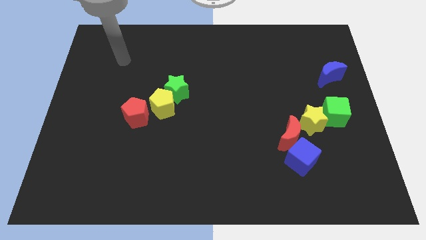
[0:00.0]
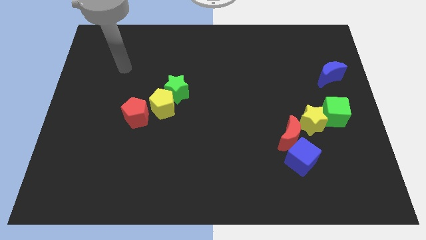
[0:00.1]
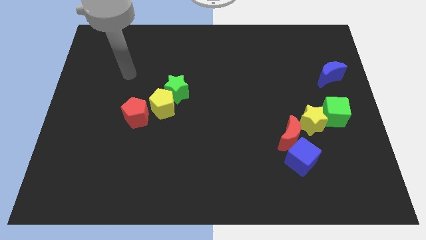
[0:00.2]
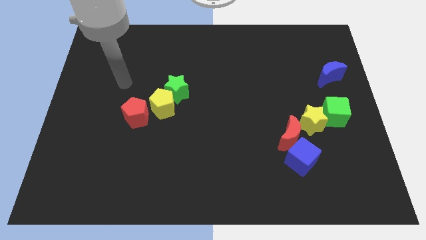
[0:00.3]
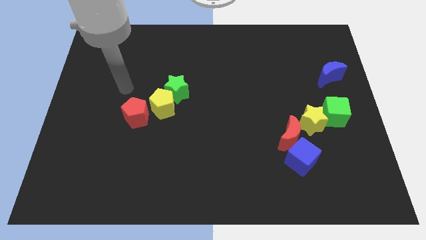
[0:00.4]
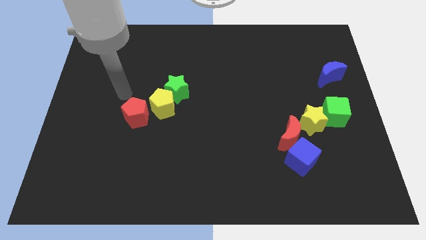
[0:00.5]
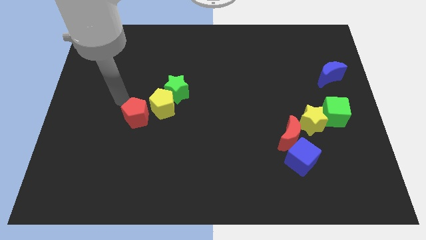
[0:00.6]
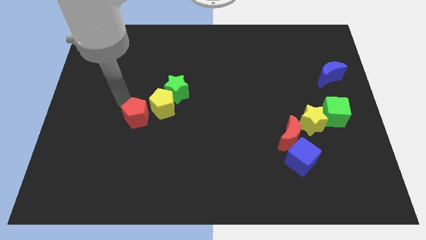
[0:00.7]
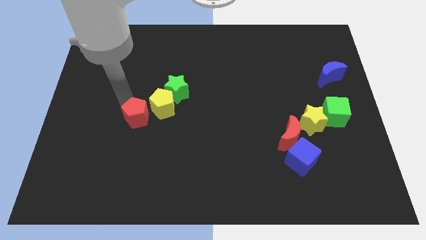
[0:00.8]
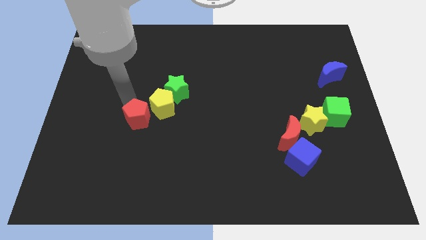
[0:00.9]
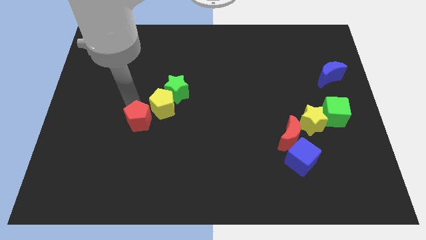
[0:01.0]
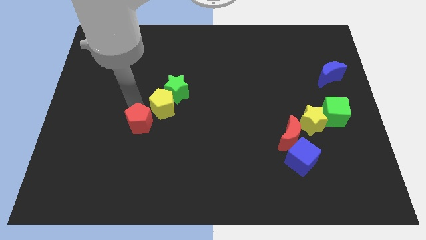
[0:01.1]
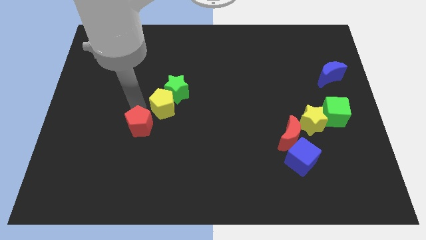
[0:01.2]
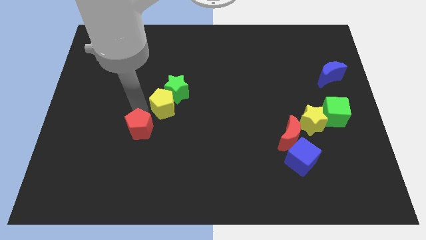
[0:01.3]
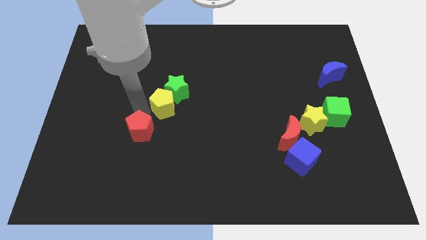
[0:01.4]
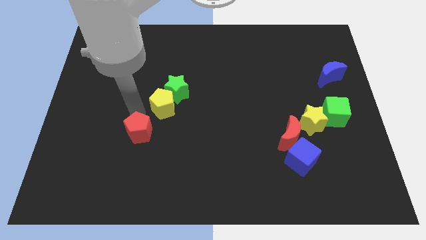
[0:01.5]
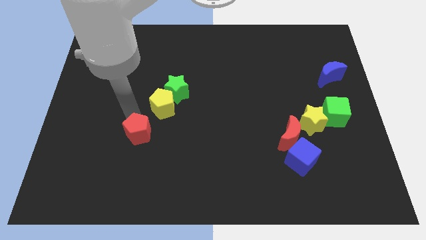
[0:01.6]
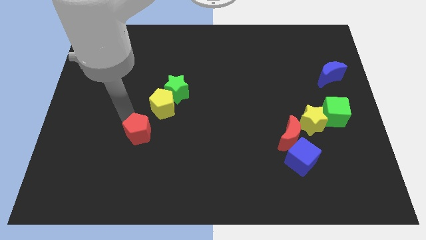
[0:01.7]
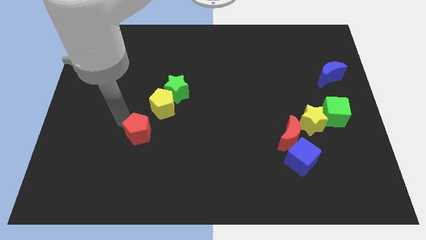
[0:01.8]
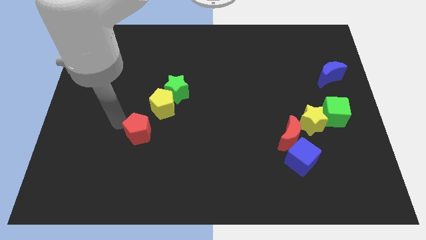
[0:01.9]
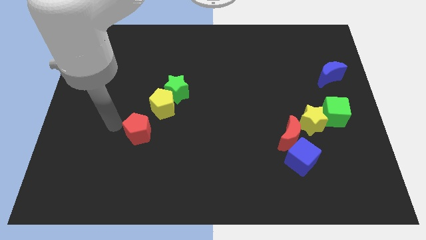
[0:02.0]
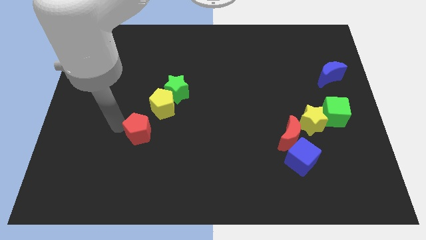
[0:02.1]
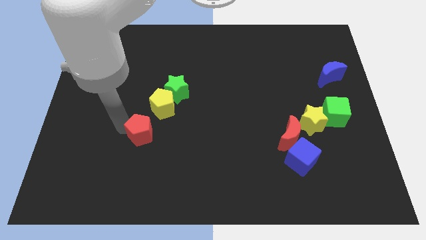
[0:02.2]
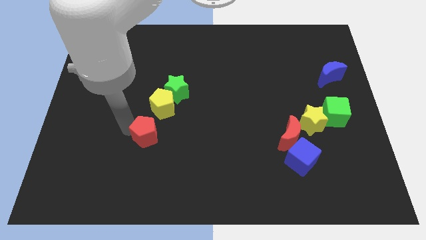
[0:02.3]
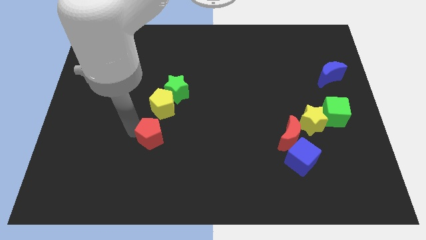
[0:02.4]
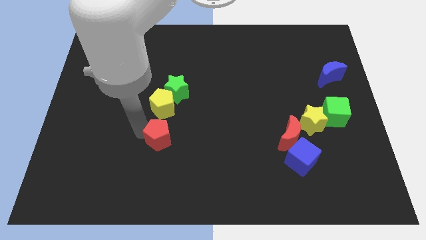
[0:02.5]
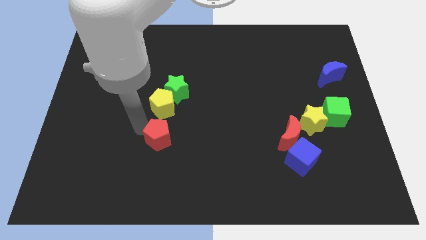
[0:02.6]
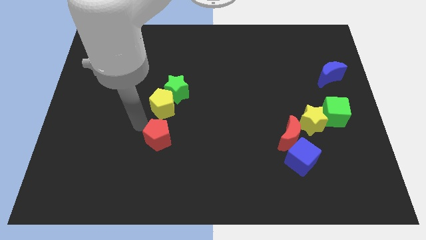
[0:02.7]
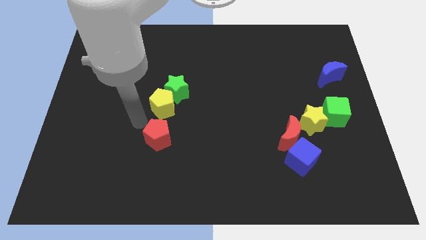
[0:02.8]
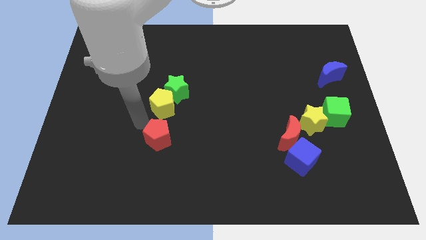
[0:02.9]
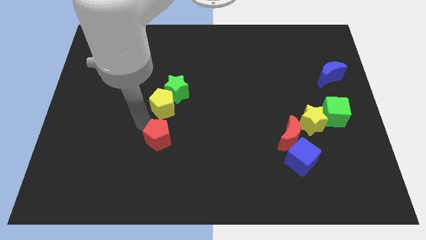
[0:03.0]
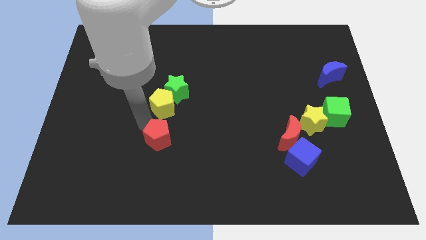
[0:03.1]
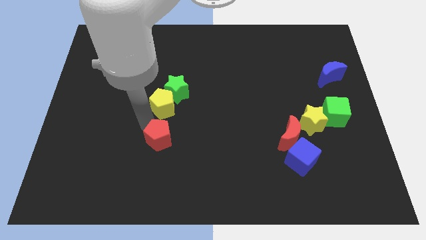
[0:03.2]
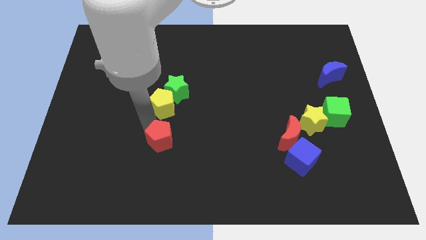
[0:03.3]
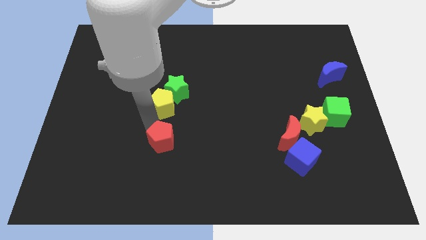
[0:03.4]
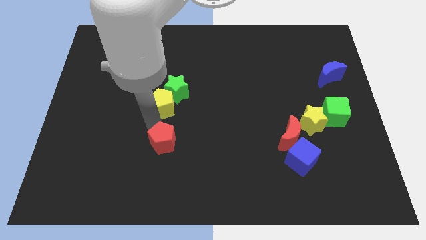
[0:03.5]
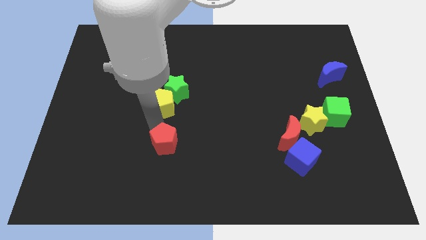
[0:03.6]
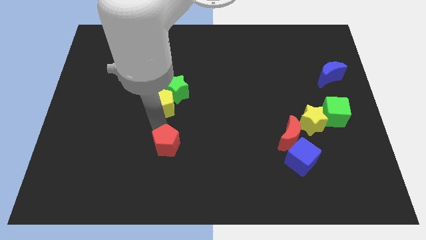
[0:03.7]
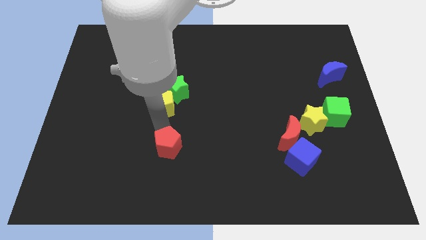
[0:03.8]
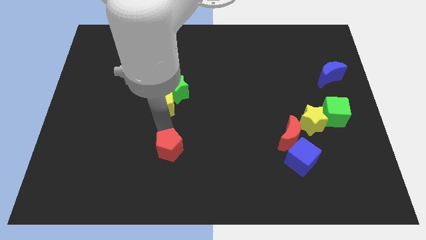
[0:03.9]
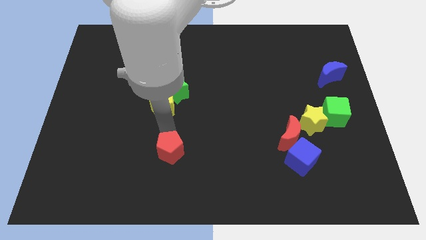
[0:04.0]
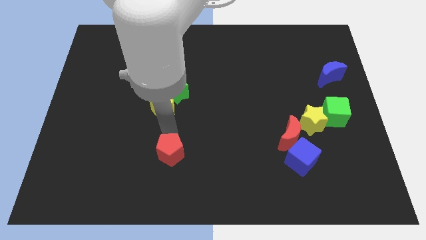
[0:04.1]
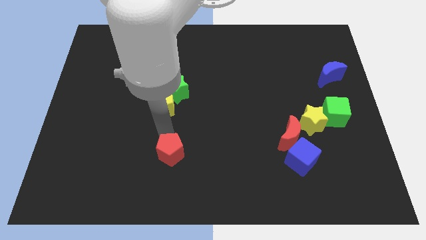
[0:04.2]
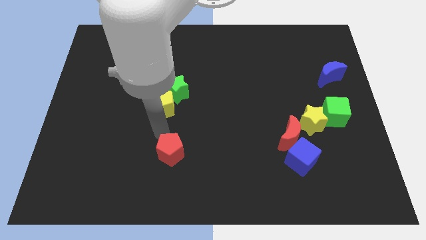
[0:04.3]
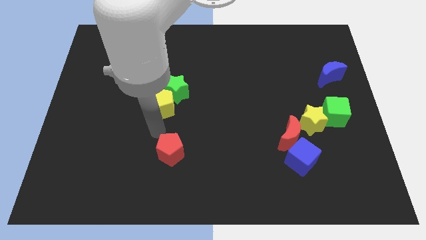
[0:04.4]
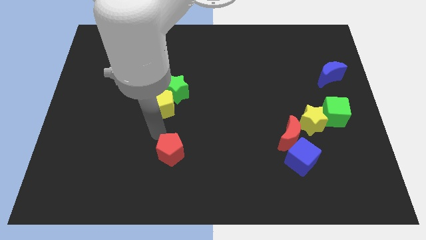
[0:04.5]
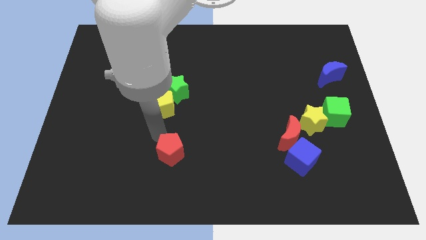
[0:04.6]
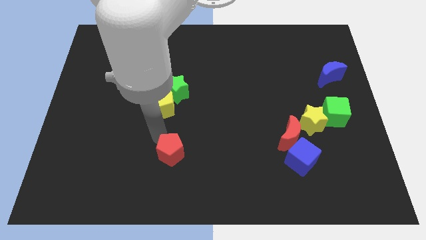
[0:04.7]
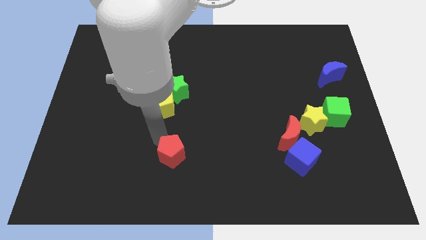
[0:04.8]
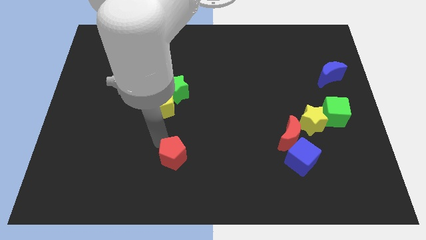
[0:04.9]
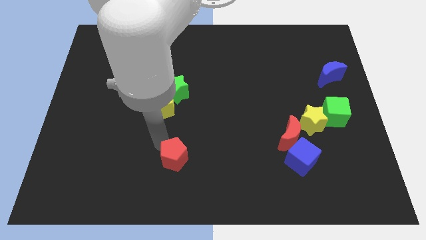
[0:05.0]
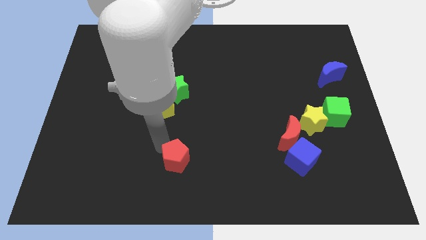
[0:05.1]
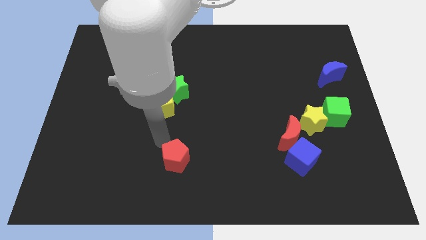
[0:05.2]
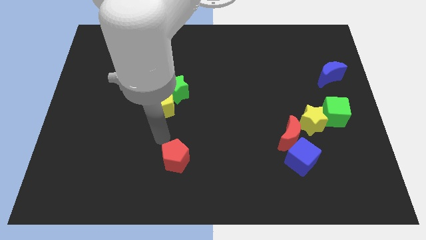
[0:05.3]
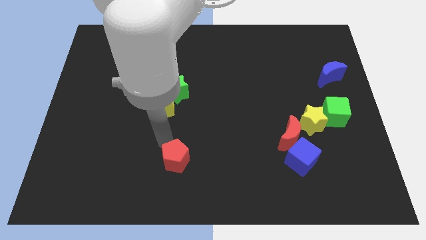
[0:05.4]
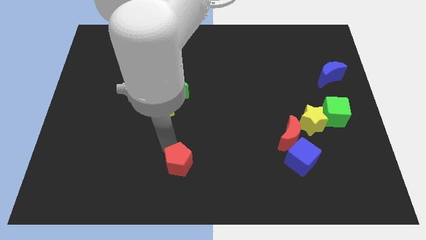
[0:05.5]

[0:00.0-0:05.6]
push the red pentagon to the bottom side

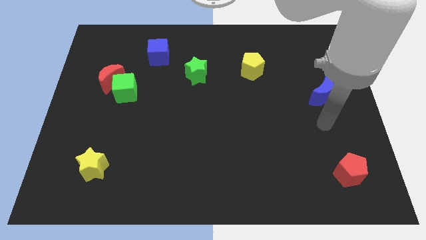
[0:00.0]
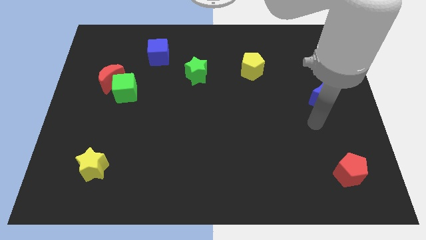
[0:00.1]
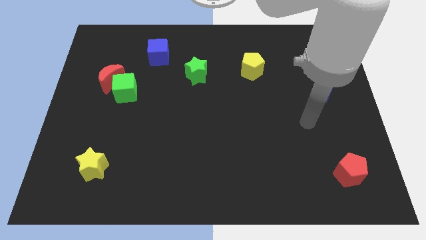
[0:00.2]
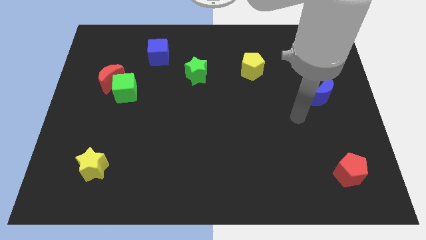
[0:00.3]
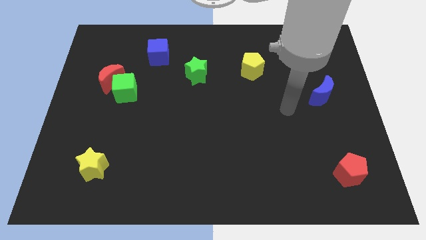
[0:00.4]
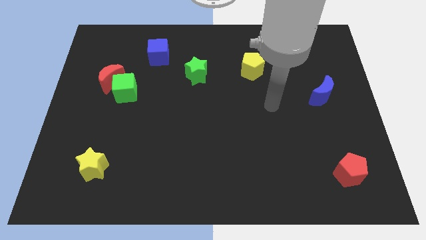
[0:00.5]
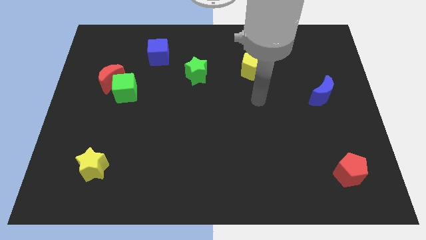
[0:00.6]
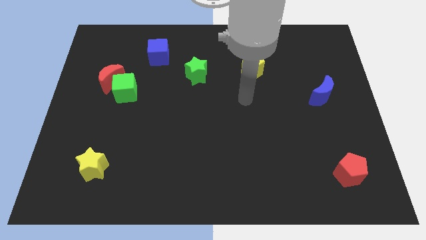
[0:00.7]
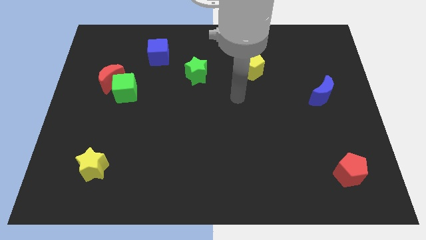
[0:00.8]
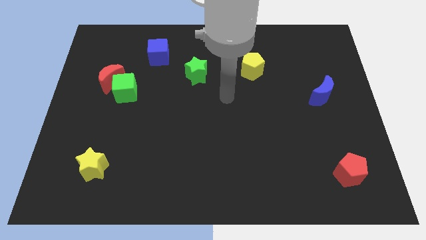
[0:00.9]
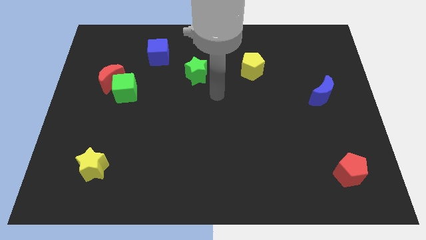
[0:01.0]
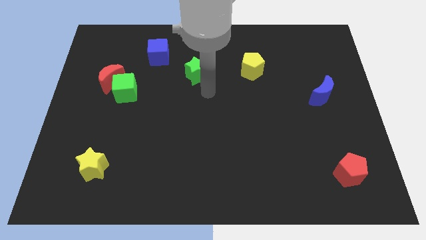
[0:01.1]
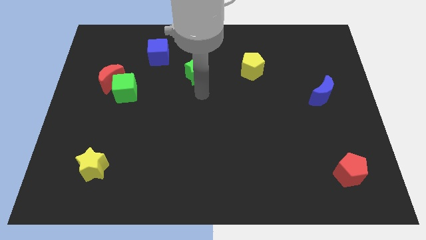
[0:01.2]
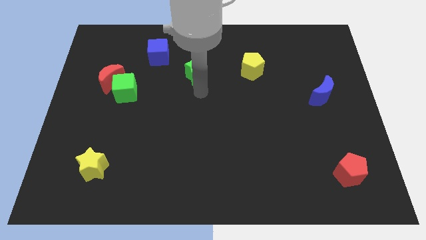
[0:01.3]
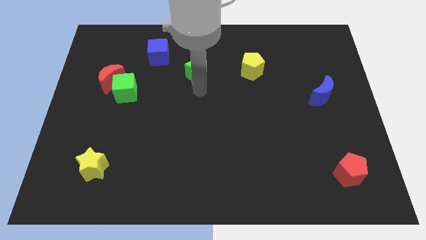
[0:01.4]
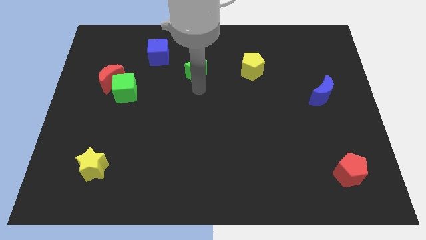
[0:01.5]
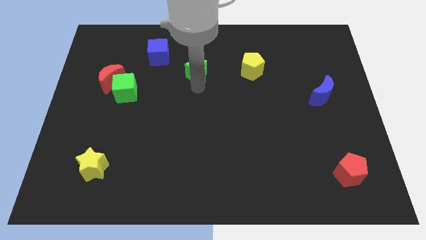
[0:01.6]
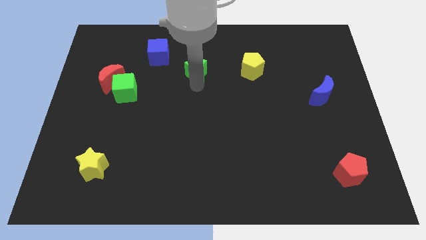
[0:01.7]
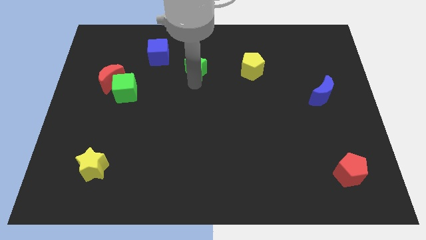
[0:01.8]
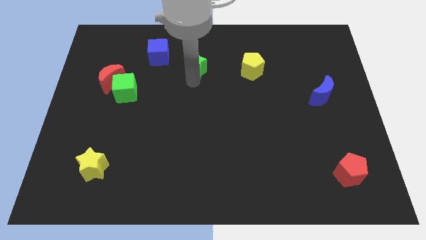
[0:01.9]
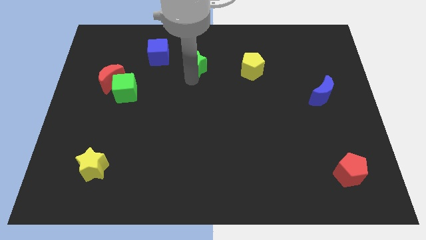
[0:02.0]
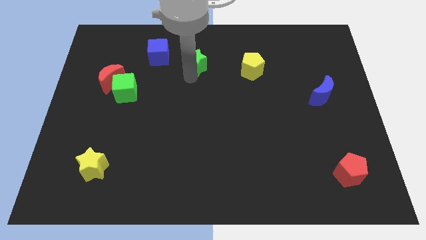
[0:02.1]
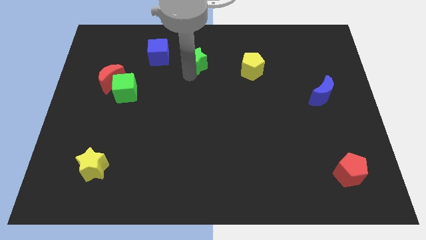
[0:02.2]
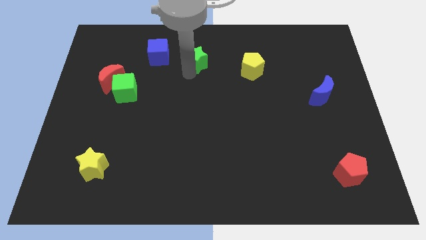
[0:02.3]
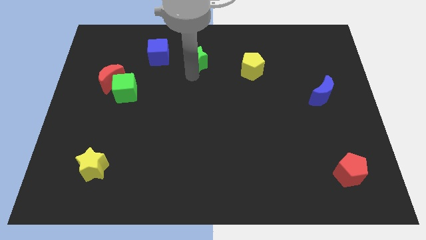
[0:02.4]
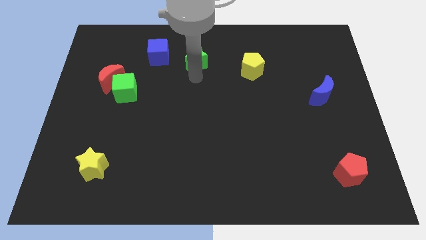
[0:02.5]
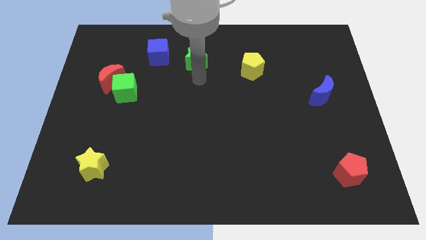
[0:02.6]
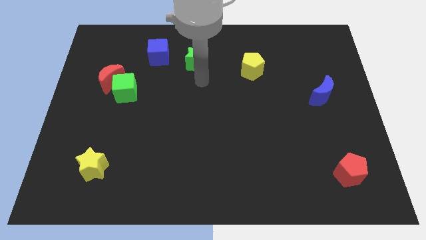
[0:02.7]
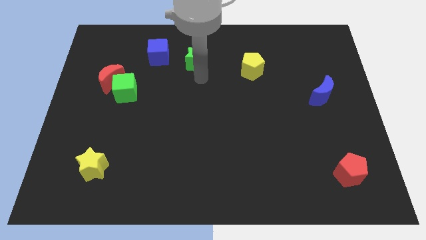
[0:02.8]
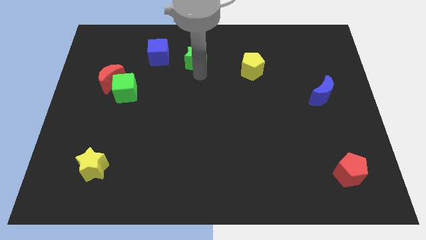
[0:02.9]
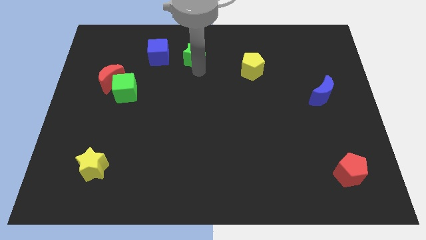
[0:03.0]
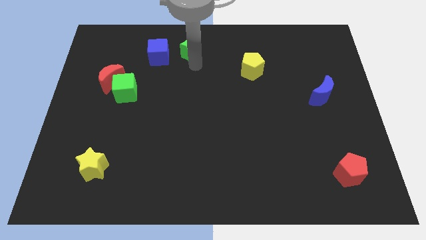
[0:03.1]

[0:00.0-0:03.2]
push the green star to the towards your base
